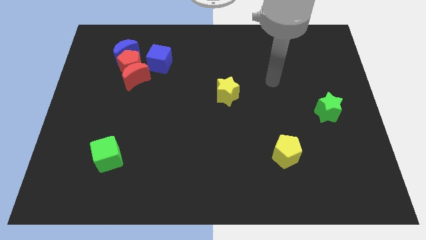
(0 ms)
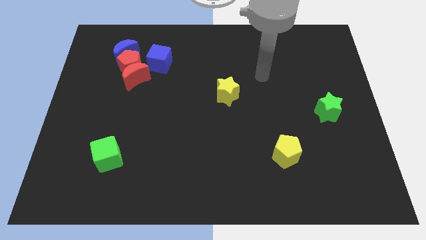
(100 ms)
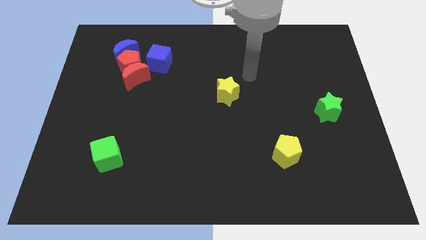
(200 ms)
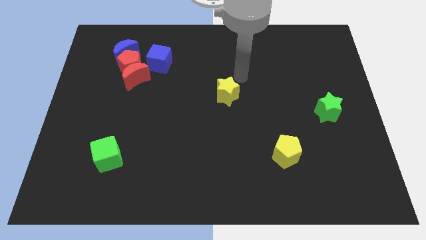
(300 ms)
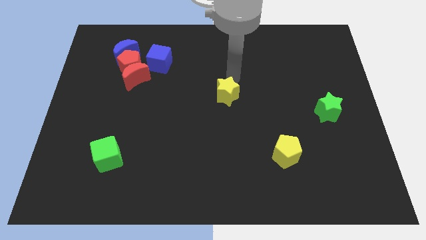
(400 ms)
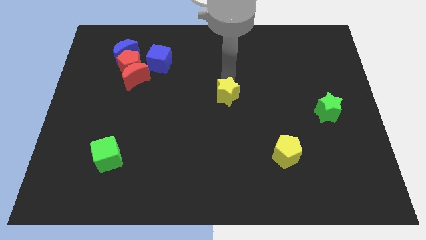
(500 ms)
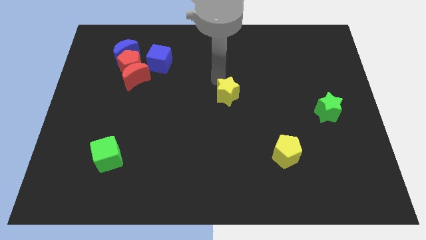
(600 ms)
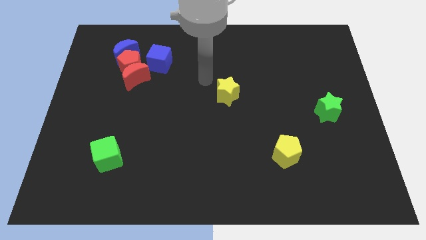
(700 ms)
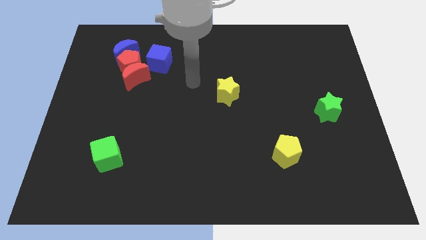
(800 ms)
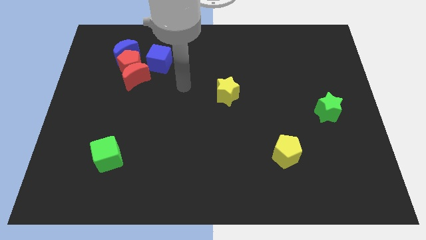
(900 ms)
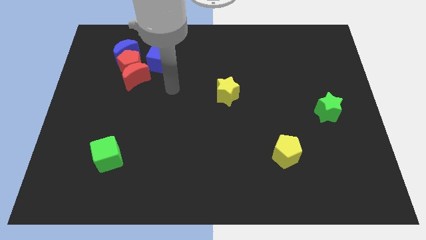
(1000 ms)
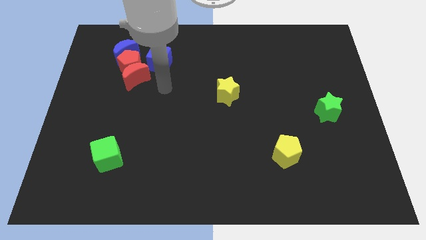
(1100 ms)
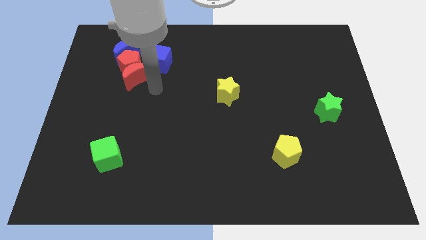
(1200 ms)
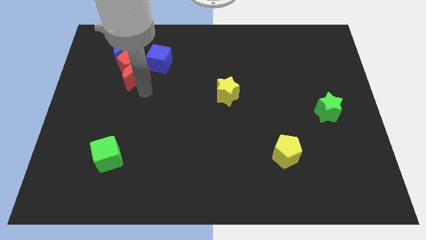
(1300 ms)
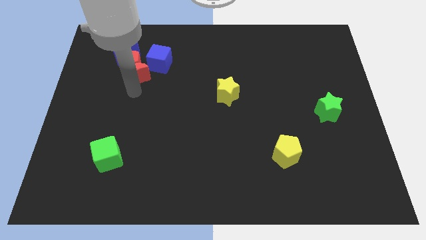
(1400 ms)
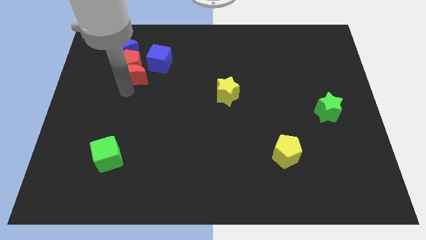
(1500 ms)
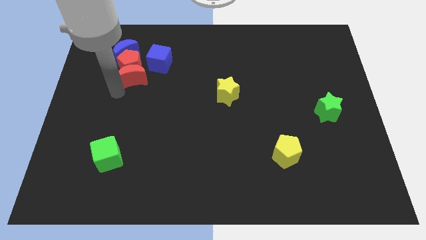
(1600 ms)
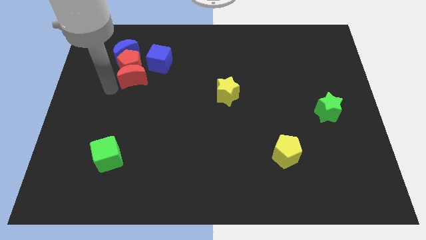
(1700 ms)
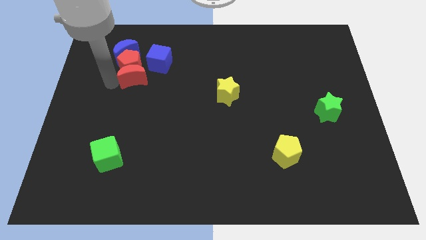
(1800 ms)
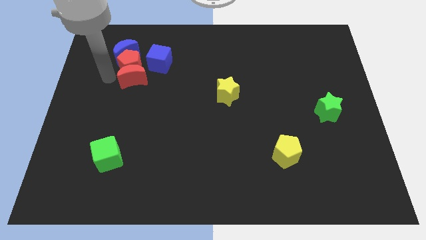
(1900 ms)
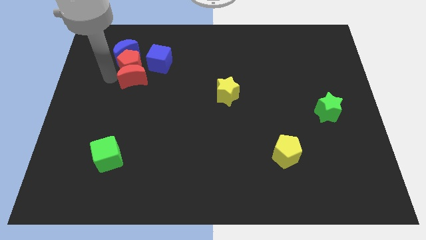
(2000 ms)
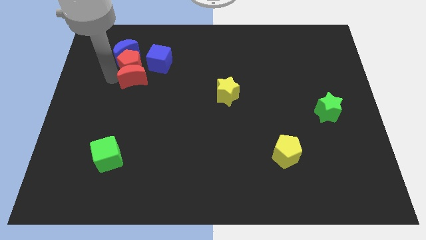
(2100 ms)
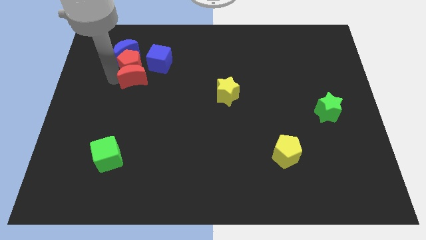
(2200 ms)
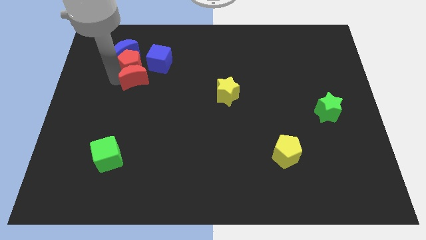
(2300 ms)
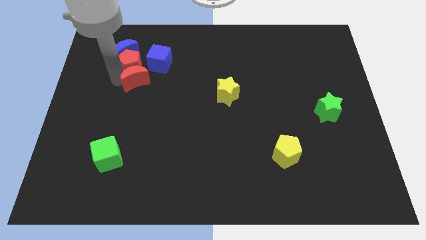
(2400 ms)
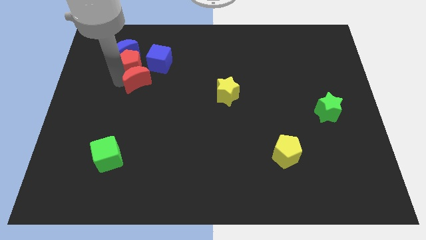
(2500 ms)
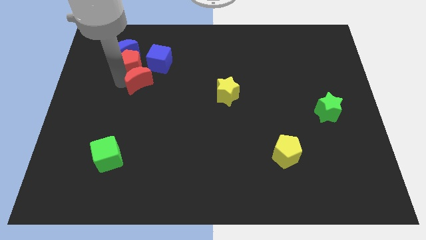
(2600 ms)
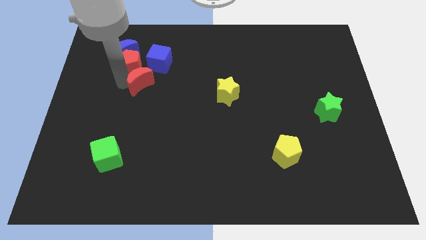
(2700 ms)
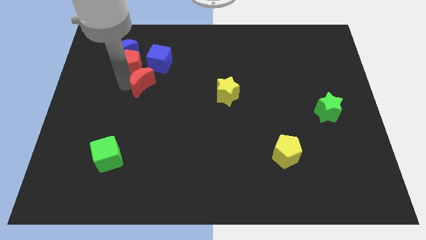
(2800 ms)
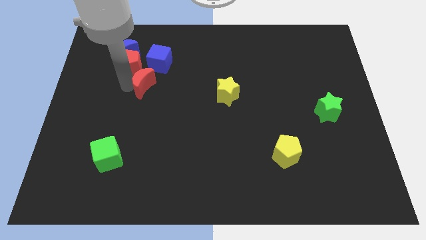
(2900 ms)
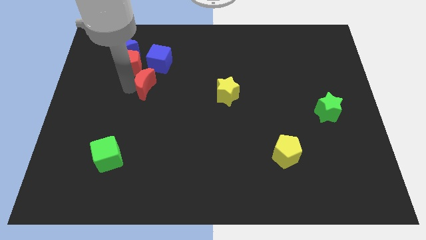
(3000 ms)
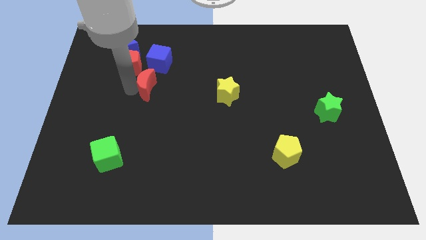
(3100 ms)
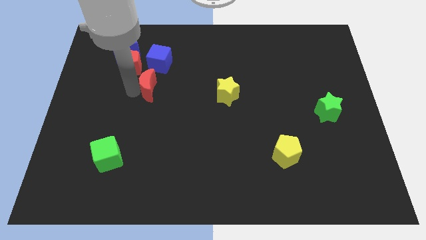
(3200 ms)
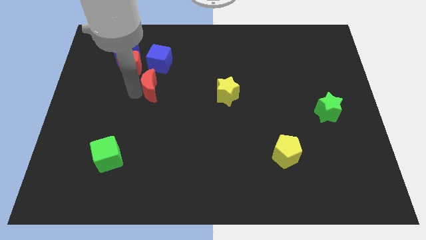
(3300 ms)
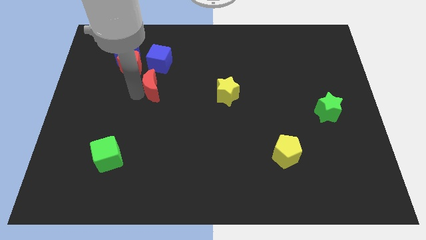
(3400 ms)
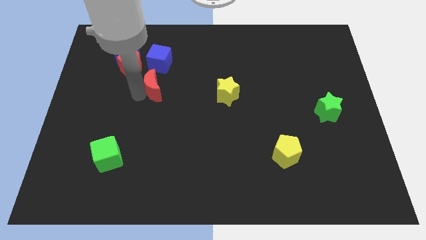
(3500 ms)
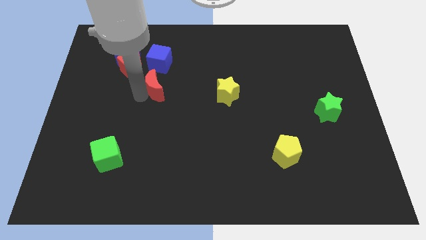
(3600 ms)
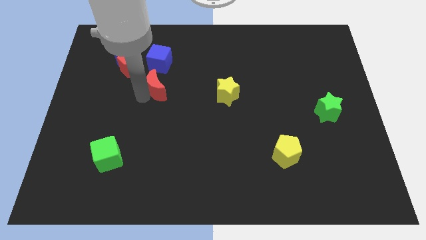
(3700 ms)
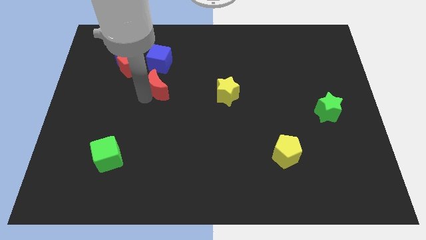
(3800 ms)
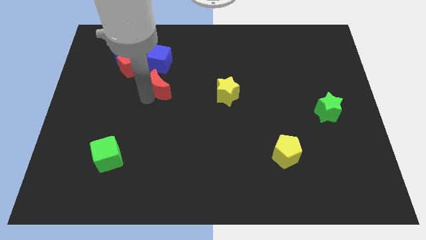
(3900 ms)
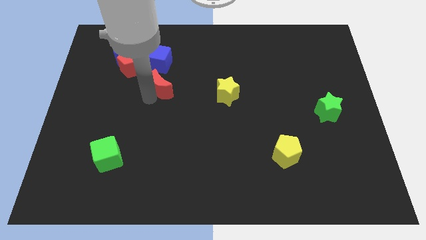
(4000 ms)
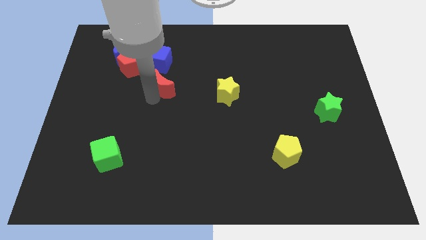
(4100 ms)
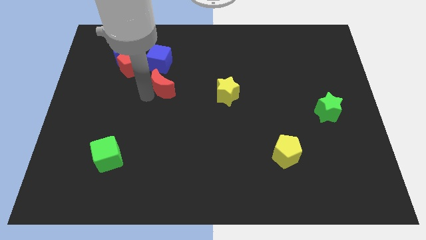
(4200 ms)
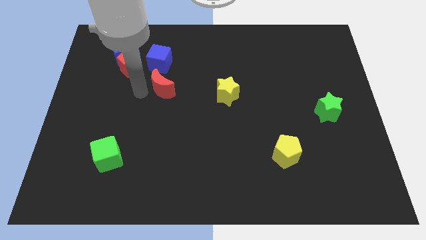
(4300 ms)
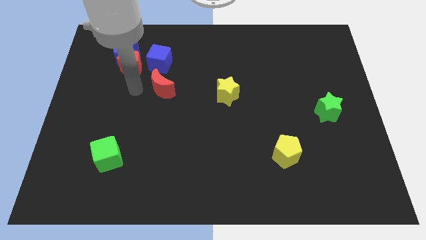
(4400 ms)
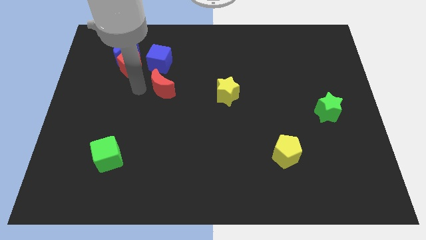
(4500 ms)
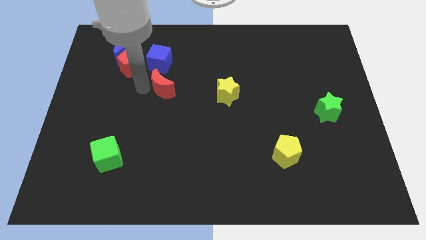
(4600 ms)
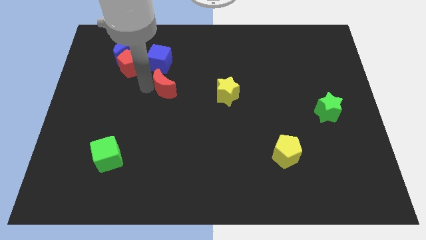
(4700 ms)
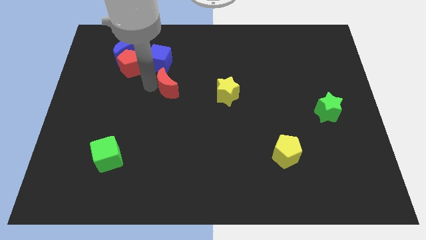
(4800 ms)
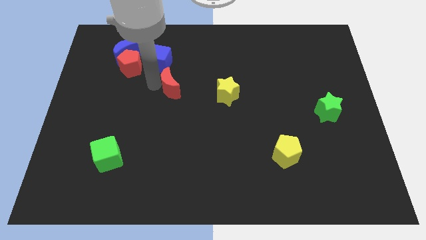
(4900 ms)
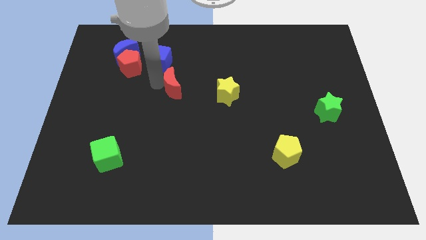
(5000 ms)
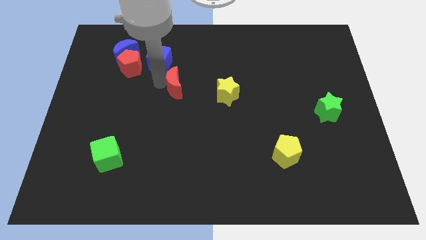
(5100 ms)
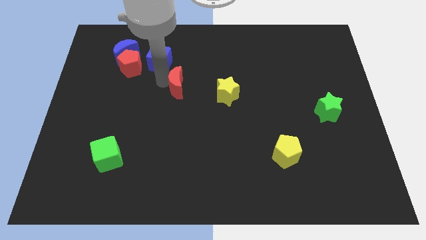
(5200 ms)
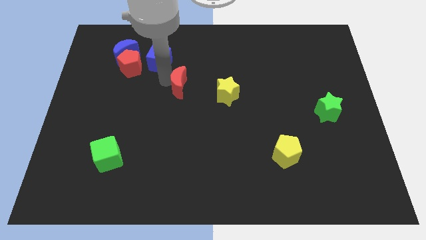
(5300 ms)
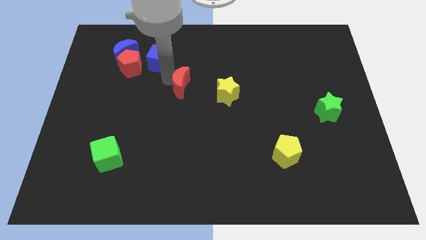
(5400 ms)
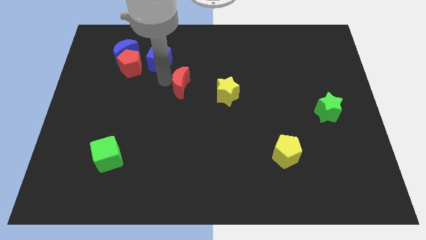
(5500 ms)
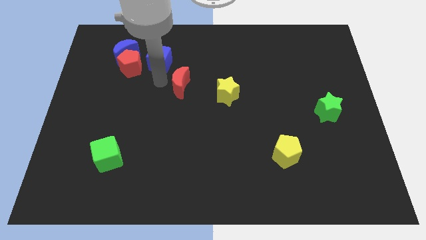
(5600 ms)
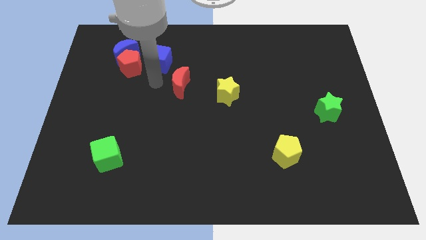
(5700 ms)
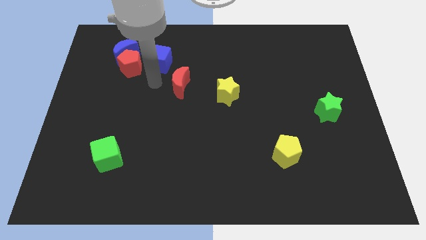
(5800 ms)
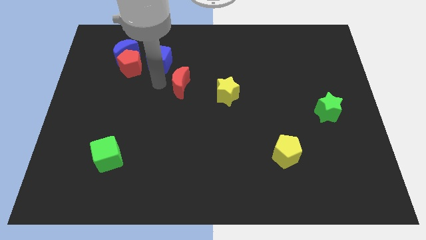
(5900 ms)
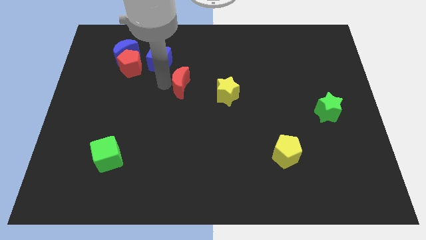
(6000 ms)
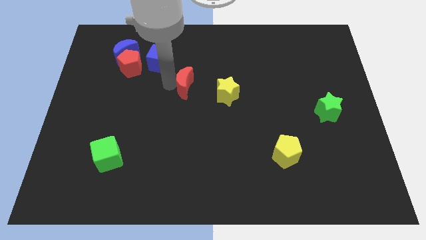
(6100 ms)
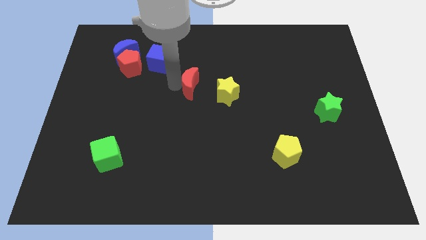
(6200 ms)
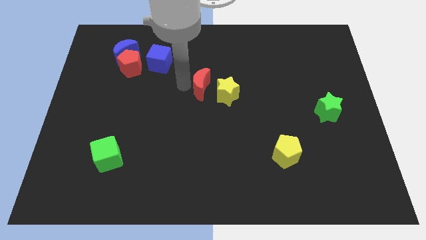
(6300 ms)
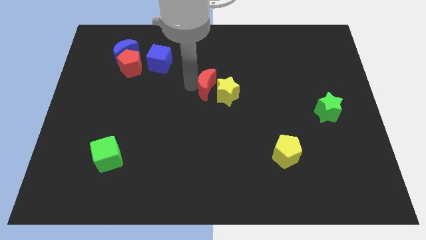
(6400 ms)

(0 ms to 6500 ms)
put the red moon towards the yellow star

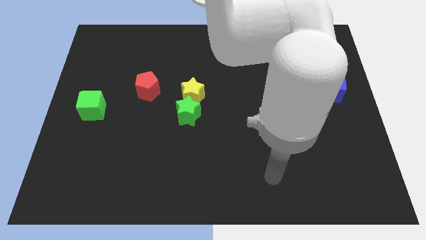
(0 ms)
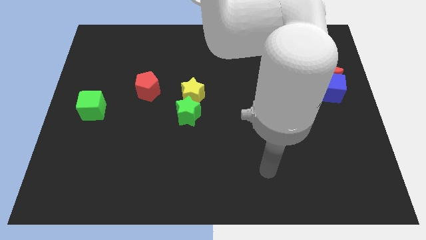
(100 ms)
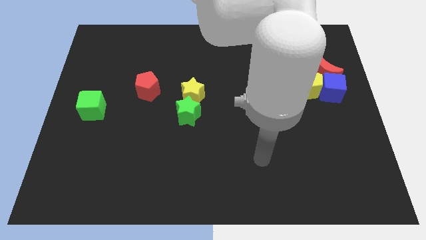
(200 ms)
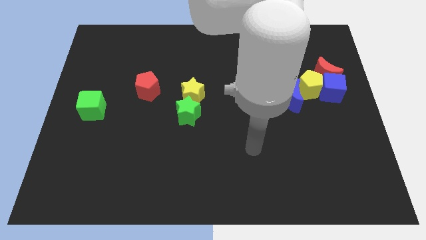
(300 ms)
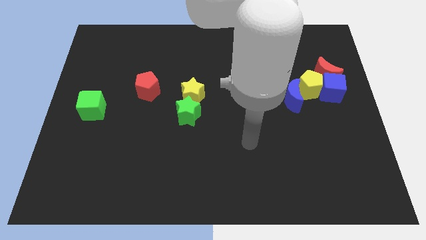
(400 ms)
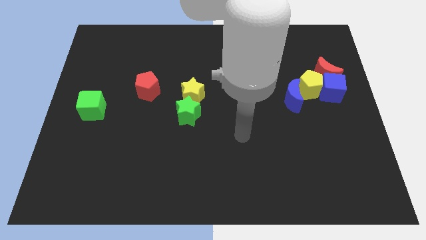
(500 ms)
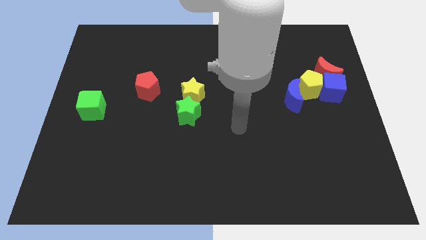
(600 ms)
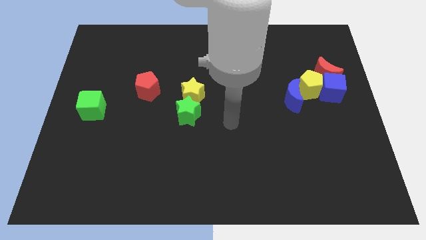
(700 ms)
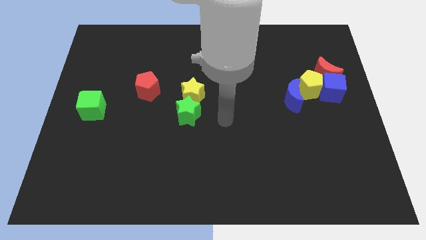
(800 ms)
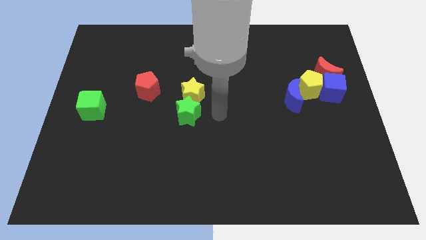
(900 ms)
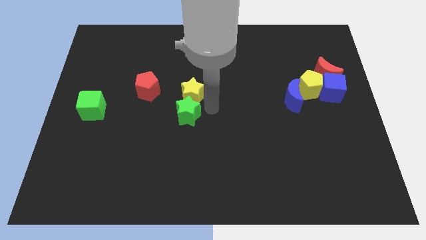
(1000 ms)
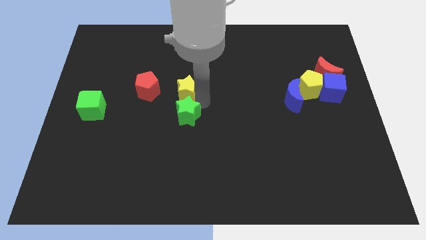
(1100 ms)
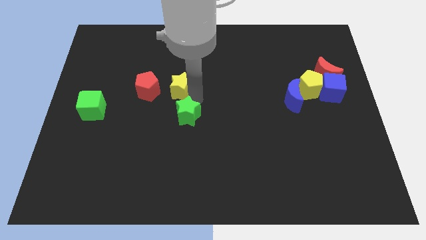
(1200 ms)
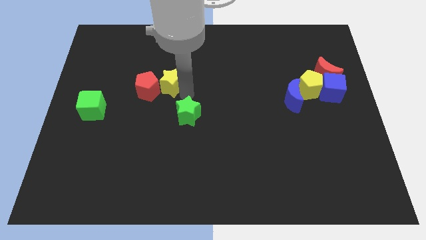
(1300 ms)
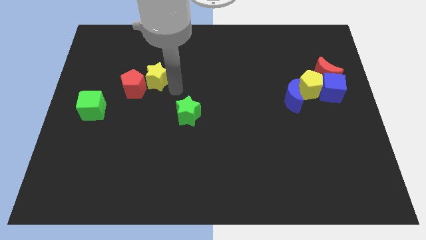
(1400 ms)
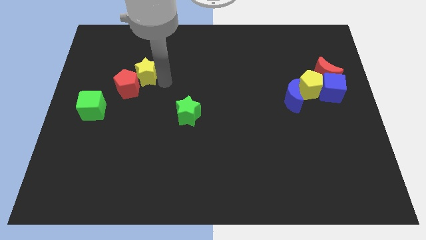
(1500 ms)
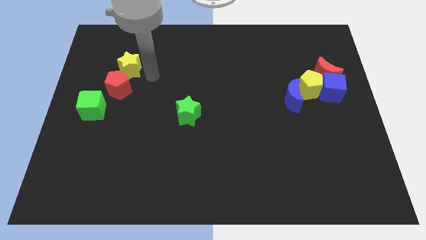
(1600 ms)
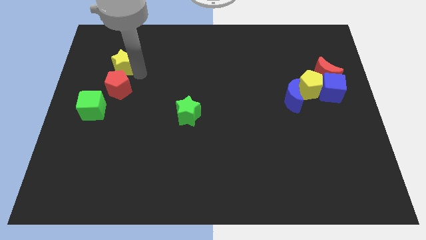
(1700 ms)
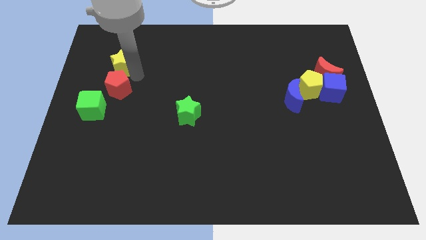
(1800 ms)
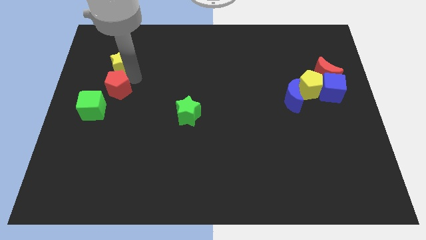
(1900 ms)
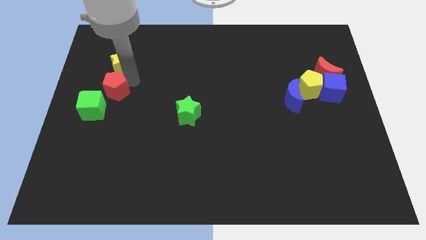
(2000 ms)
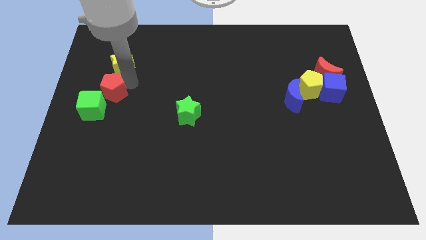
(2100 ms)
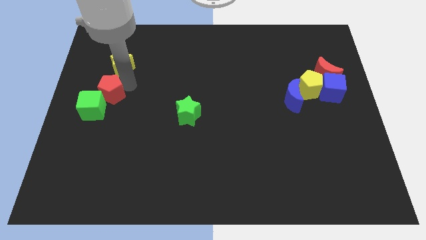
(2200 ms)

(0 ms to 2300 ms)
slide the red pentagon close to the green cube
